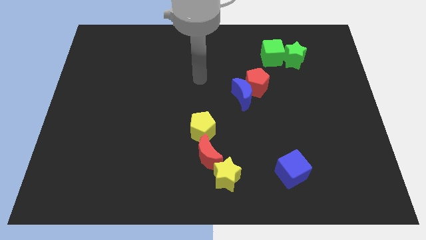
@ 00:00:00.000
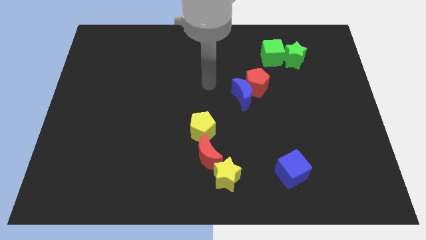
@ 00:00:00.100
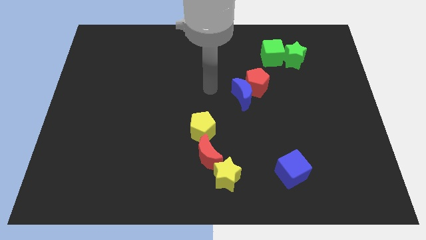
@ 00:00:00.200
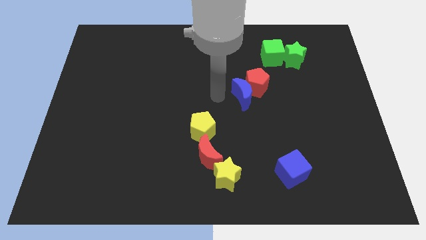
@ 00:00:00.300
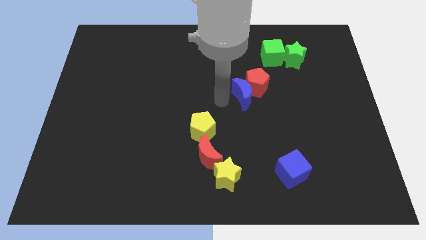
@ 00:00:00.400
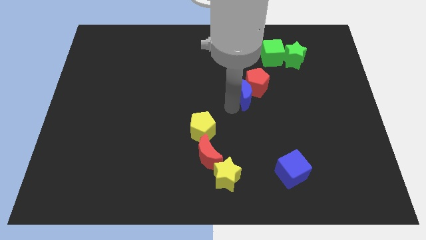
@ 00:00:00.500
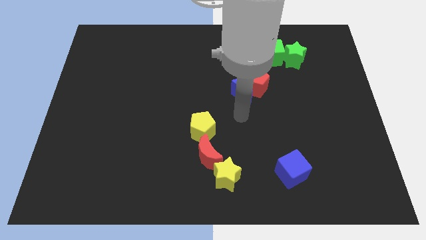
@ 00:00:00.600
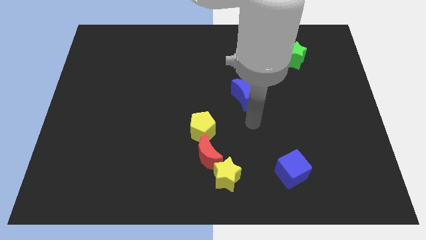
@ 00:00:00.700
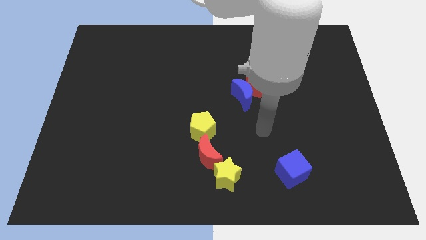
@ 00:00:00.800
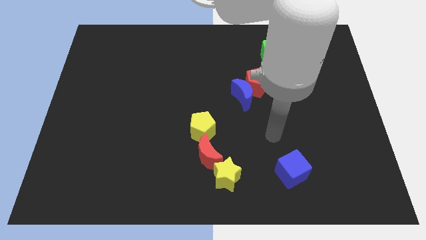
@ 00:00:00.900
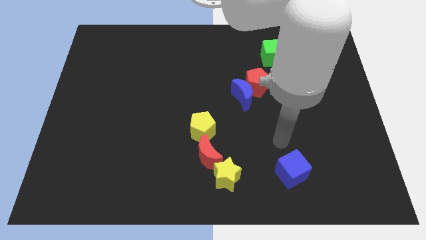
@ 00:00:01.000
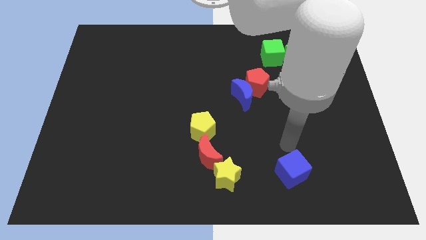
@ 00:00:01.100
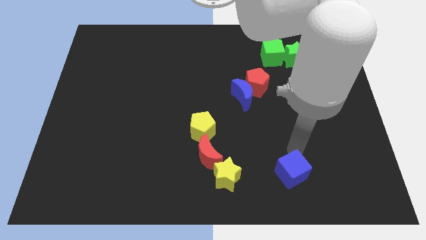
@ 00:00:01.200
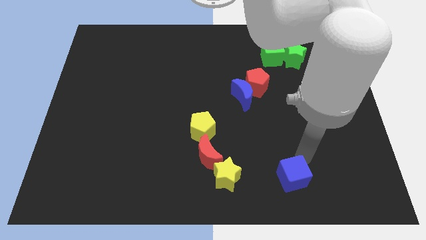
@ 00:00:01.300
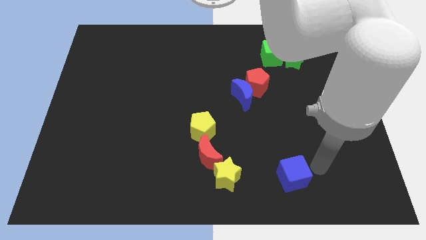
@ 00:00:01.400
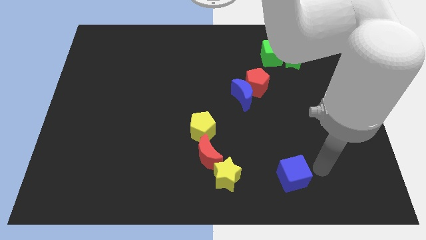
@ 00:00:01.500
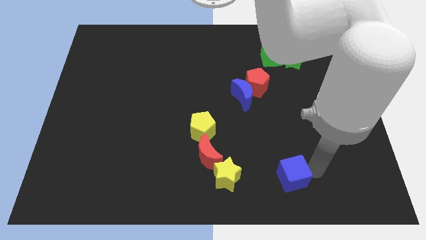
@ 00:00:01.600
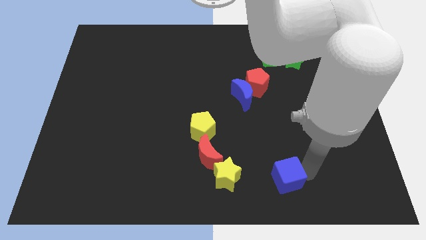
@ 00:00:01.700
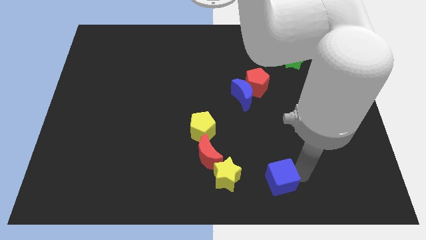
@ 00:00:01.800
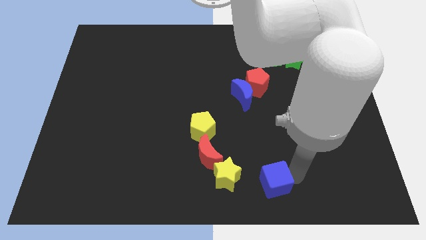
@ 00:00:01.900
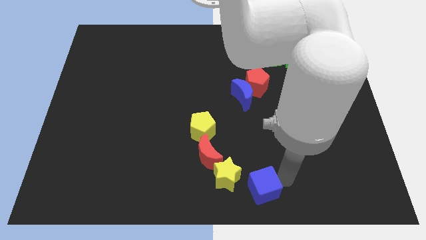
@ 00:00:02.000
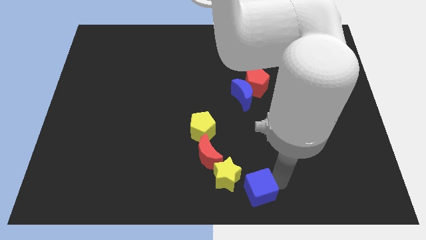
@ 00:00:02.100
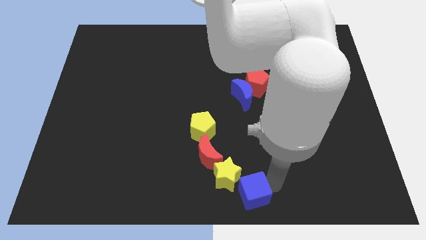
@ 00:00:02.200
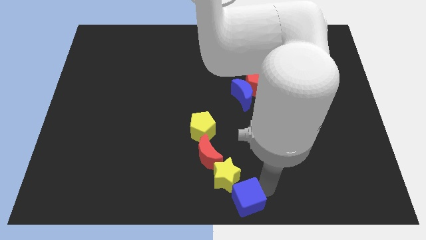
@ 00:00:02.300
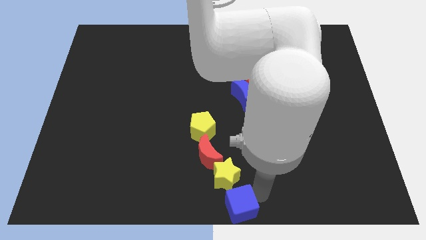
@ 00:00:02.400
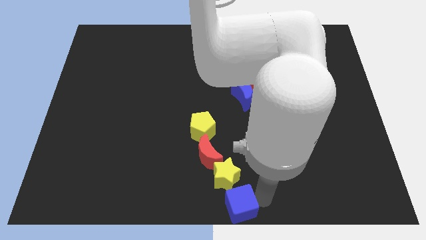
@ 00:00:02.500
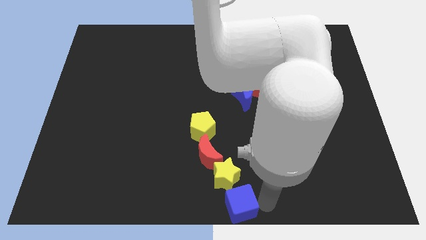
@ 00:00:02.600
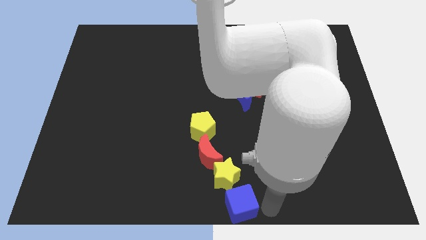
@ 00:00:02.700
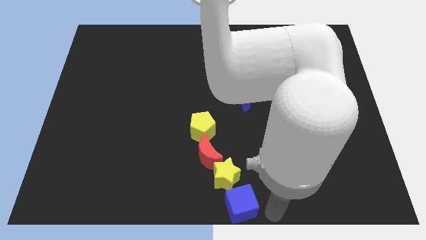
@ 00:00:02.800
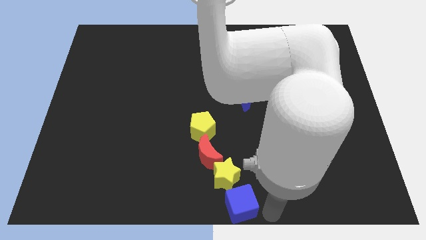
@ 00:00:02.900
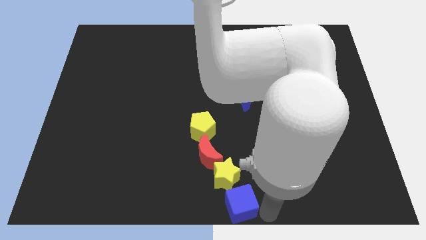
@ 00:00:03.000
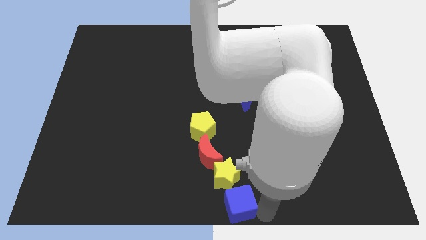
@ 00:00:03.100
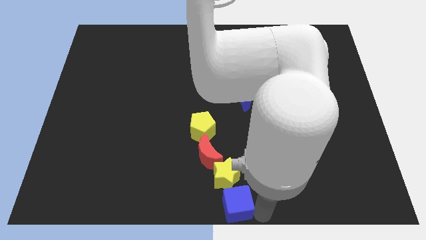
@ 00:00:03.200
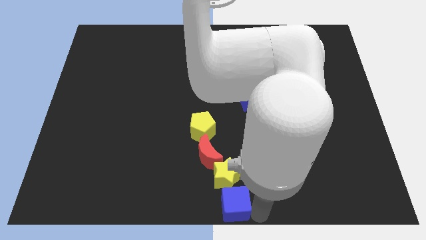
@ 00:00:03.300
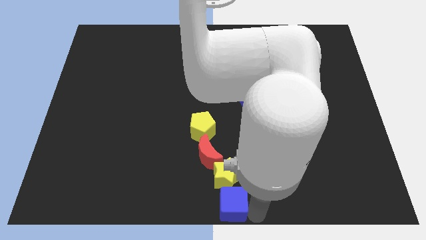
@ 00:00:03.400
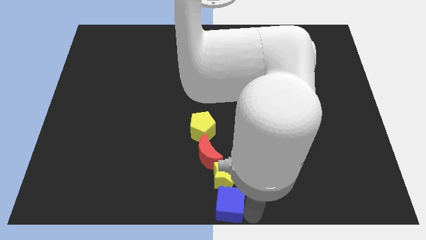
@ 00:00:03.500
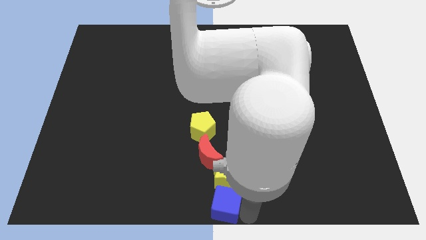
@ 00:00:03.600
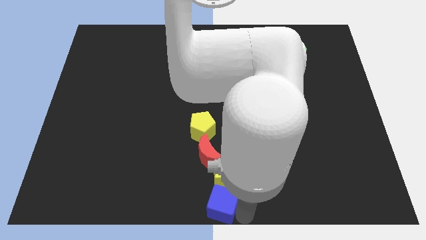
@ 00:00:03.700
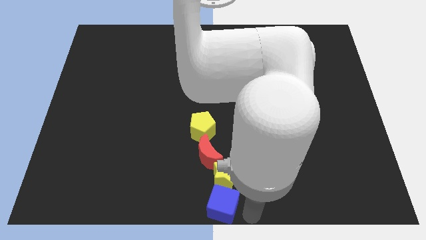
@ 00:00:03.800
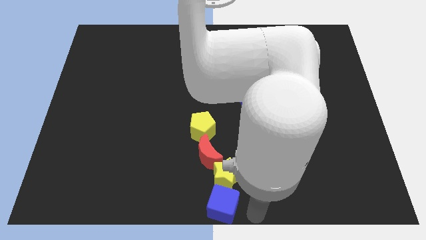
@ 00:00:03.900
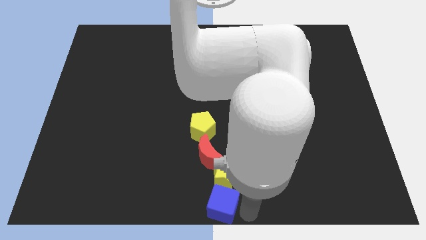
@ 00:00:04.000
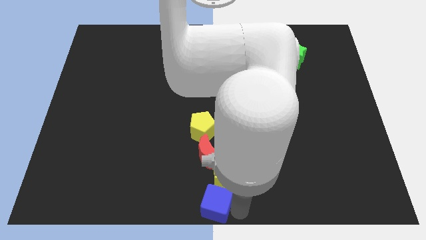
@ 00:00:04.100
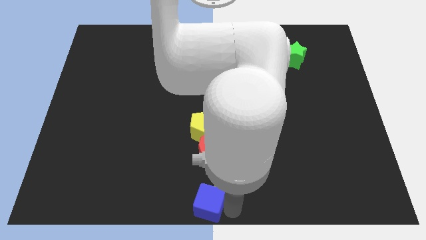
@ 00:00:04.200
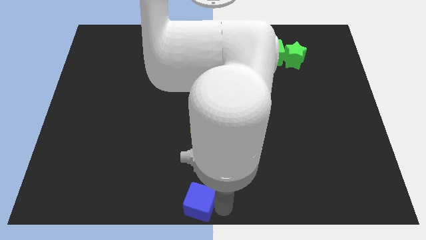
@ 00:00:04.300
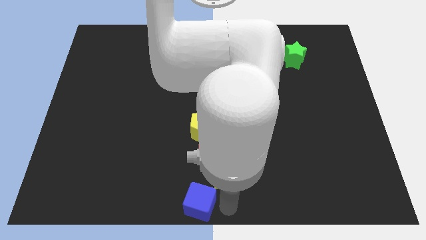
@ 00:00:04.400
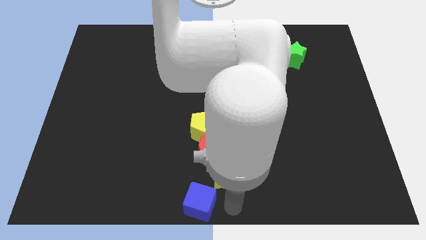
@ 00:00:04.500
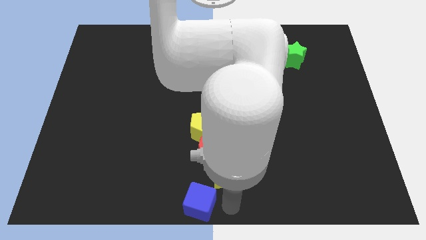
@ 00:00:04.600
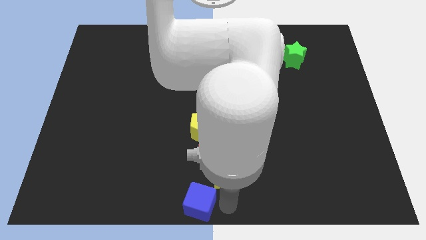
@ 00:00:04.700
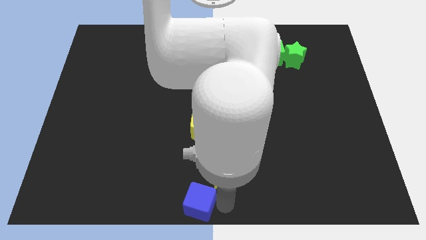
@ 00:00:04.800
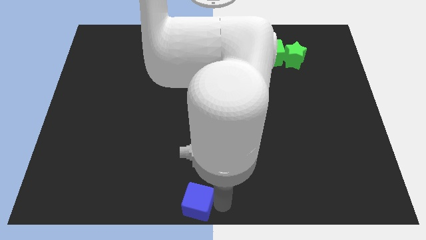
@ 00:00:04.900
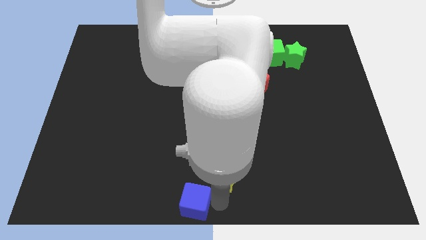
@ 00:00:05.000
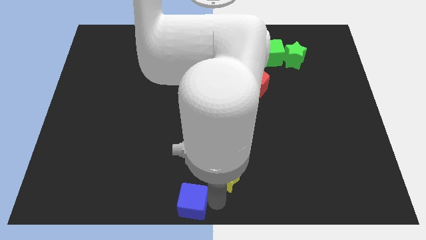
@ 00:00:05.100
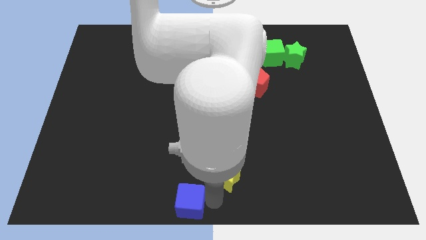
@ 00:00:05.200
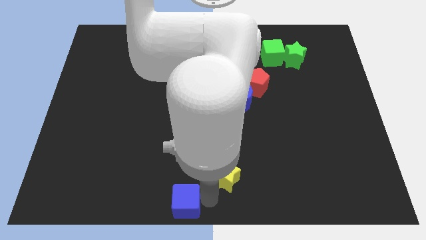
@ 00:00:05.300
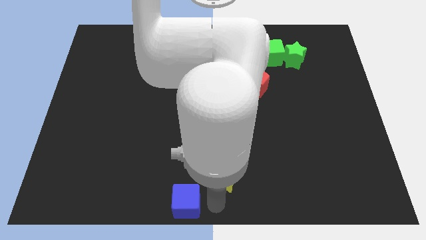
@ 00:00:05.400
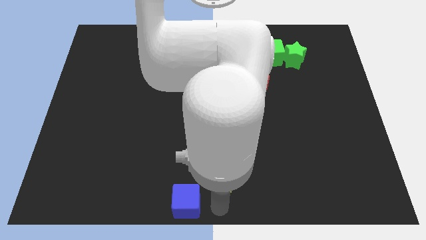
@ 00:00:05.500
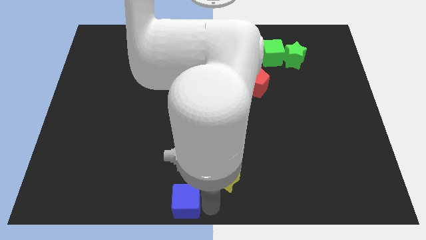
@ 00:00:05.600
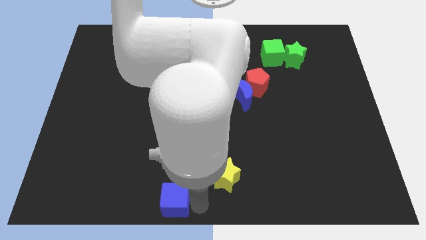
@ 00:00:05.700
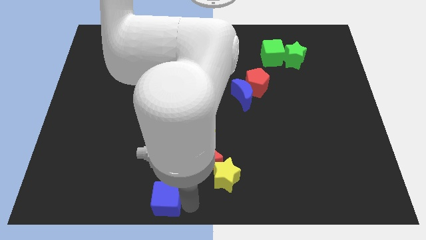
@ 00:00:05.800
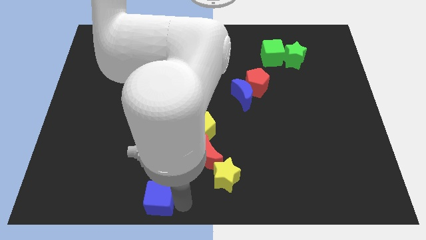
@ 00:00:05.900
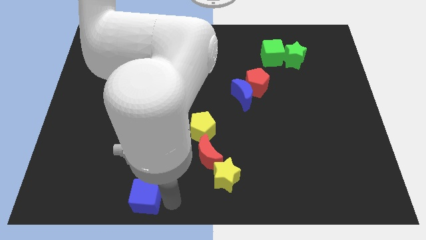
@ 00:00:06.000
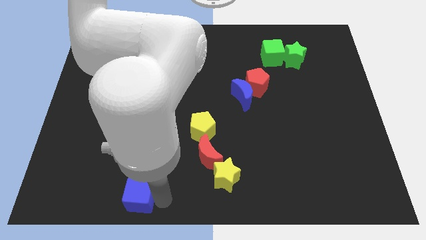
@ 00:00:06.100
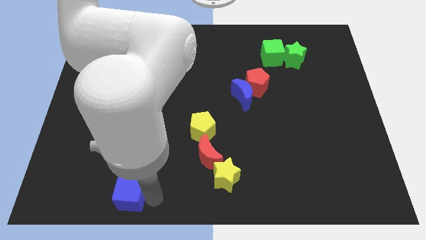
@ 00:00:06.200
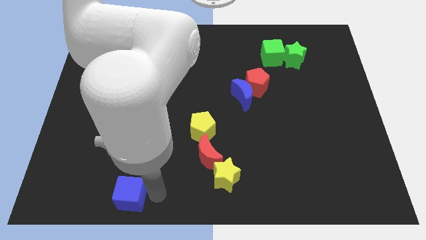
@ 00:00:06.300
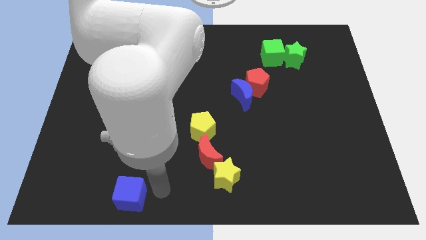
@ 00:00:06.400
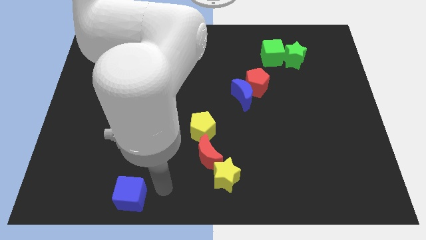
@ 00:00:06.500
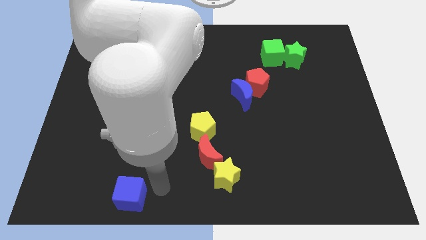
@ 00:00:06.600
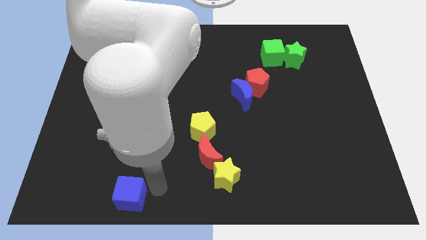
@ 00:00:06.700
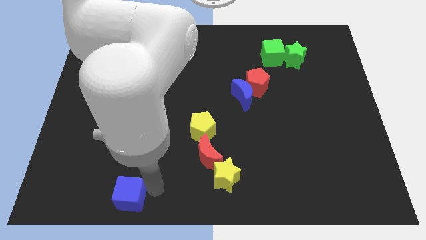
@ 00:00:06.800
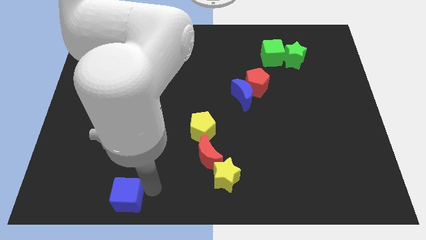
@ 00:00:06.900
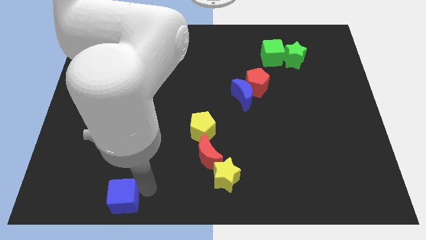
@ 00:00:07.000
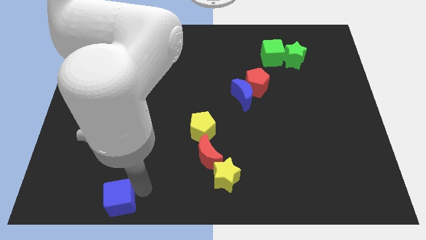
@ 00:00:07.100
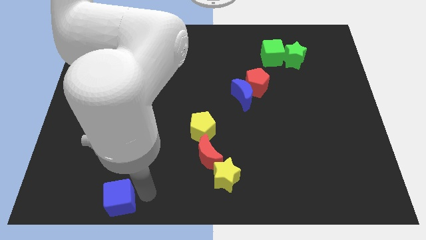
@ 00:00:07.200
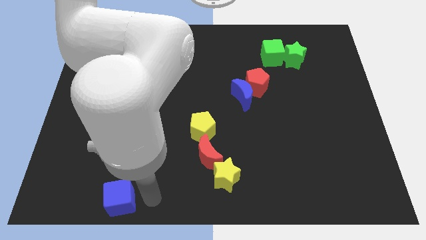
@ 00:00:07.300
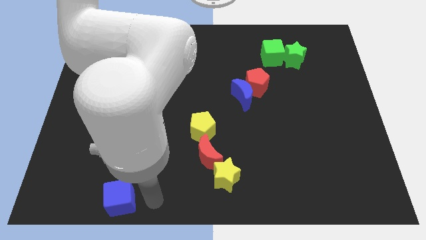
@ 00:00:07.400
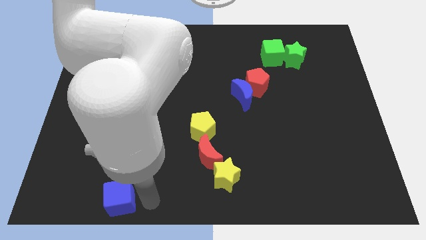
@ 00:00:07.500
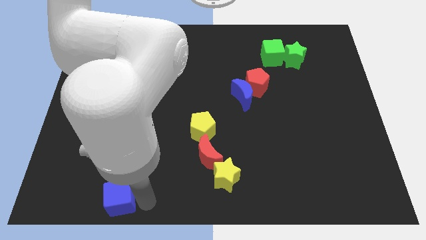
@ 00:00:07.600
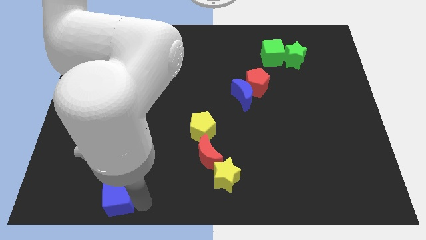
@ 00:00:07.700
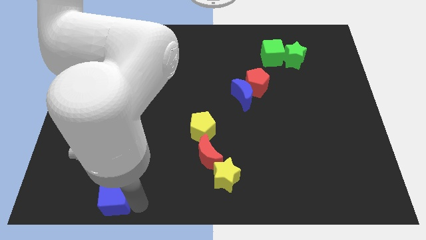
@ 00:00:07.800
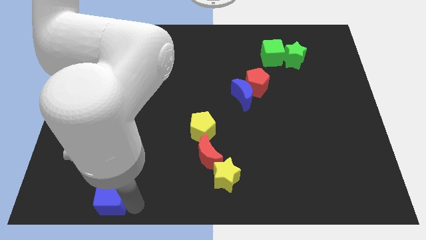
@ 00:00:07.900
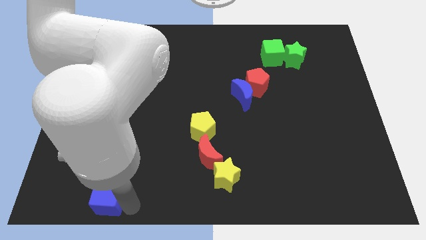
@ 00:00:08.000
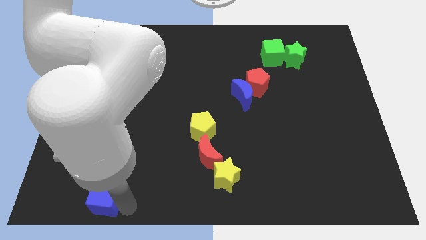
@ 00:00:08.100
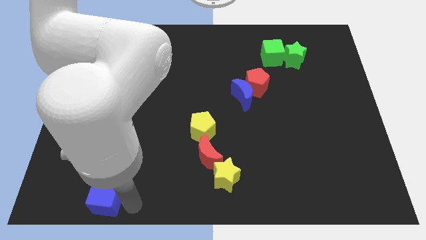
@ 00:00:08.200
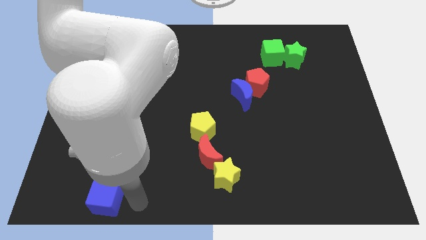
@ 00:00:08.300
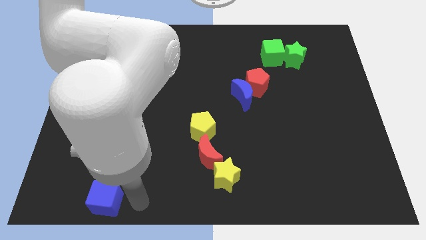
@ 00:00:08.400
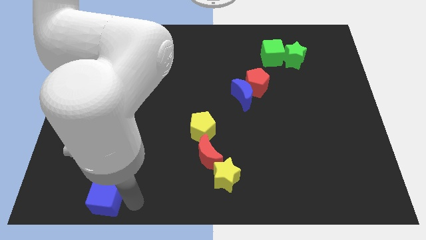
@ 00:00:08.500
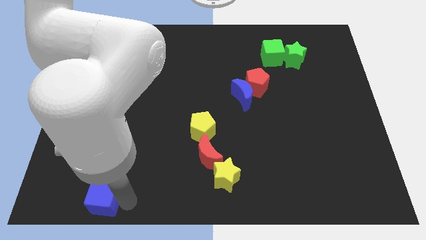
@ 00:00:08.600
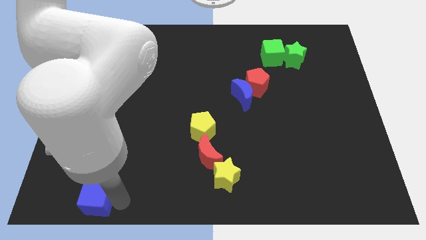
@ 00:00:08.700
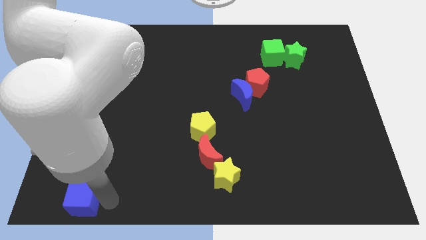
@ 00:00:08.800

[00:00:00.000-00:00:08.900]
move the blue cube to the bottom left of the board
